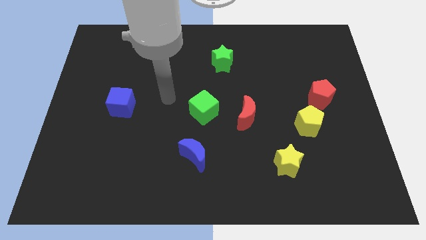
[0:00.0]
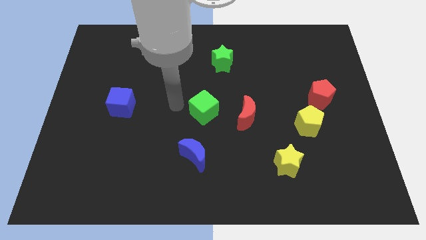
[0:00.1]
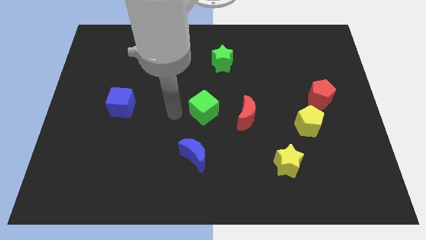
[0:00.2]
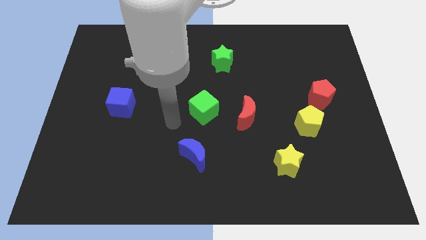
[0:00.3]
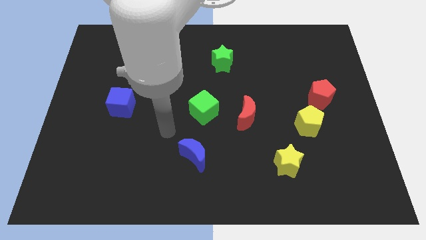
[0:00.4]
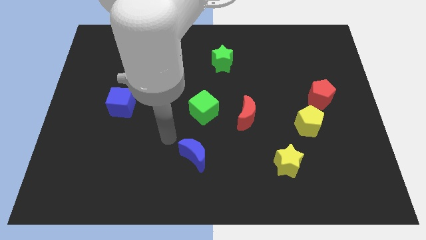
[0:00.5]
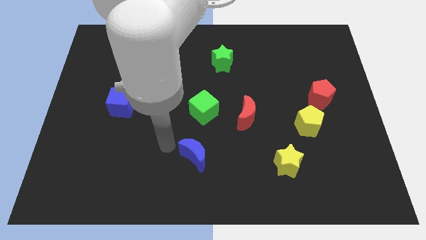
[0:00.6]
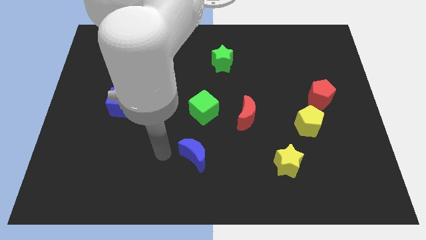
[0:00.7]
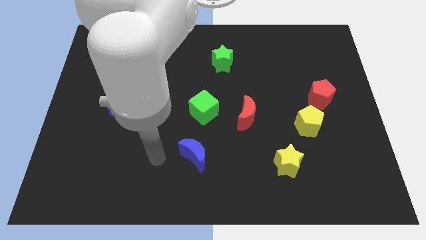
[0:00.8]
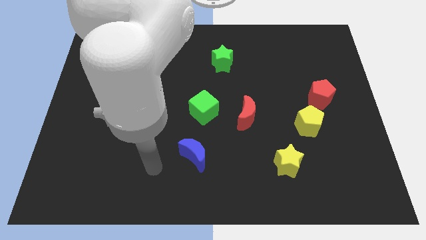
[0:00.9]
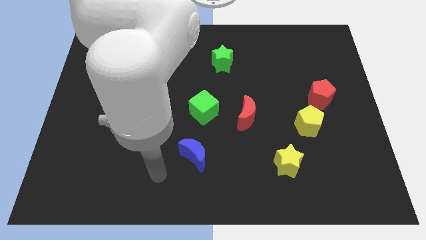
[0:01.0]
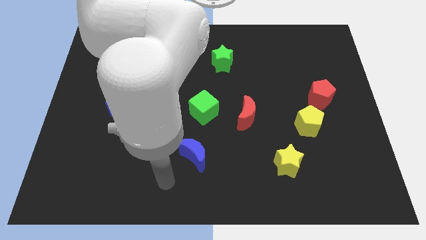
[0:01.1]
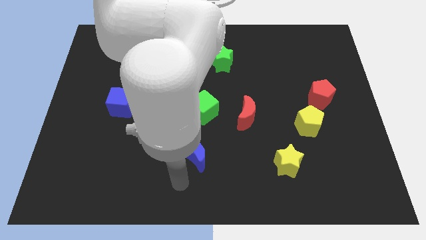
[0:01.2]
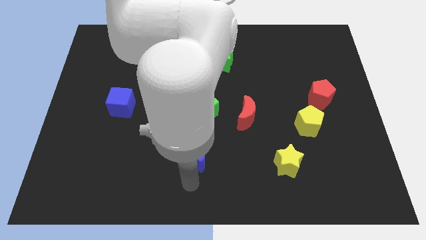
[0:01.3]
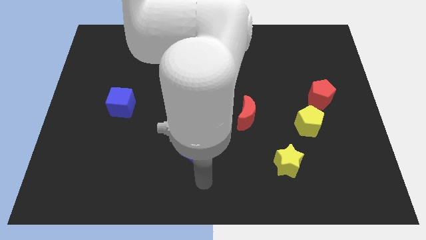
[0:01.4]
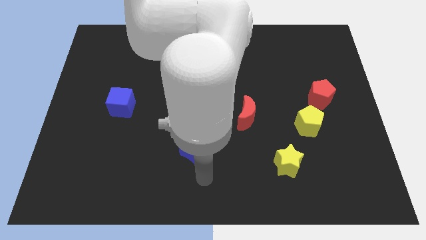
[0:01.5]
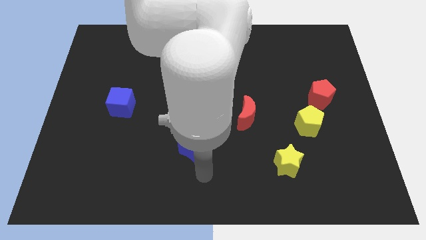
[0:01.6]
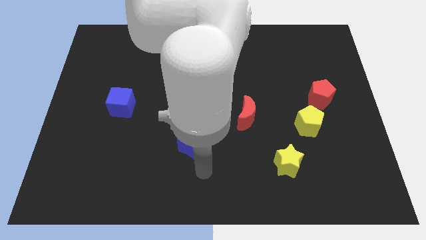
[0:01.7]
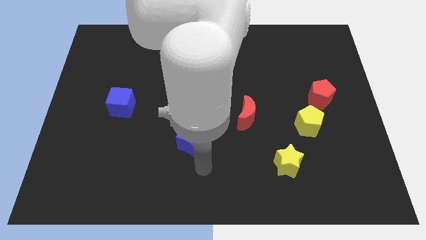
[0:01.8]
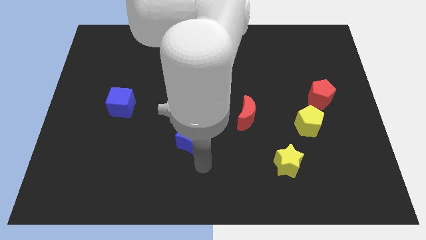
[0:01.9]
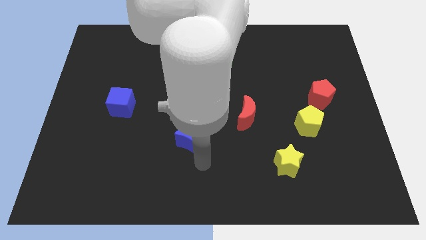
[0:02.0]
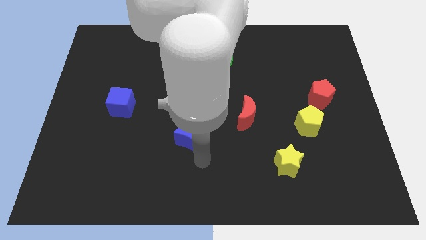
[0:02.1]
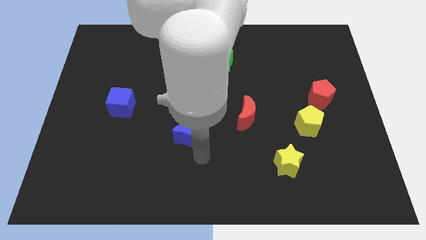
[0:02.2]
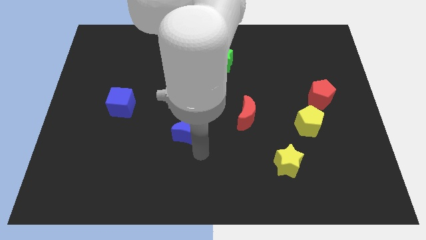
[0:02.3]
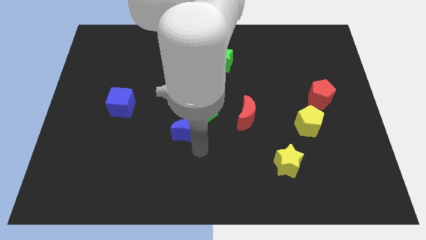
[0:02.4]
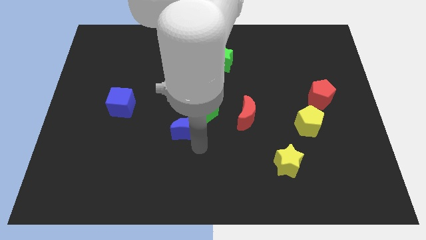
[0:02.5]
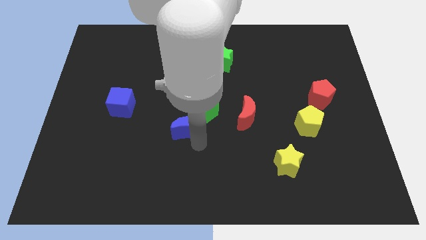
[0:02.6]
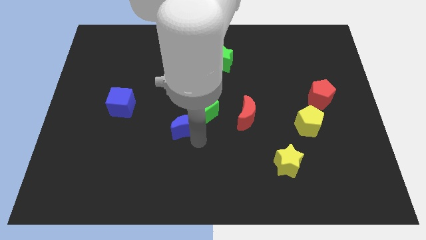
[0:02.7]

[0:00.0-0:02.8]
slide the blue moon a little bit up

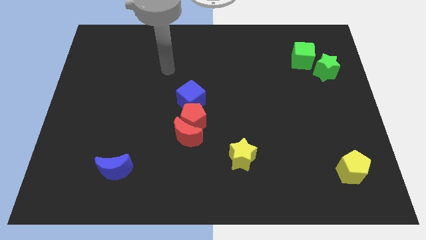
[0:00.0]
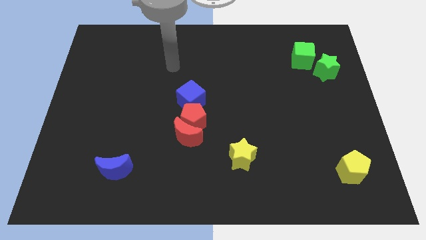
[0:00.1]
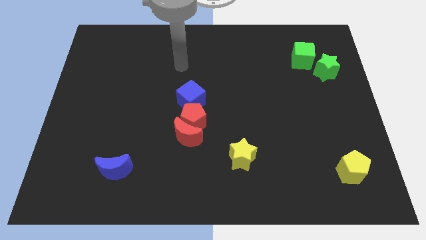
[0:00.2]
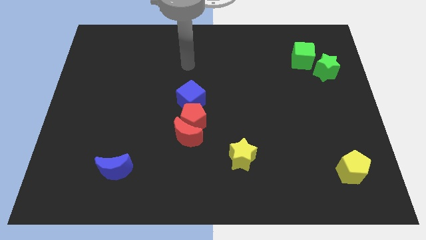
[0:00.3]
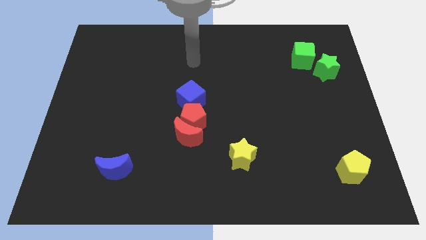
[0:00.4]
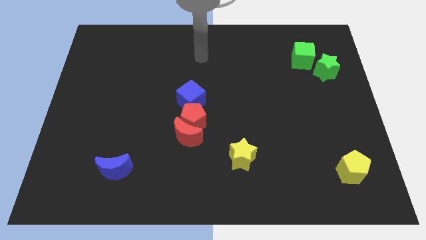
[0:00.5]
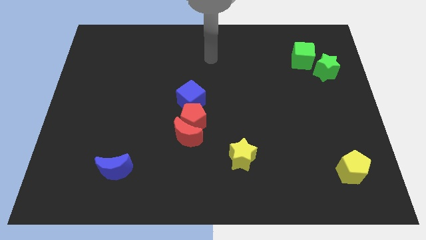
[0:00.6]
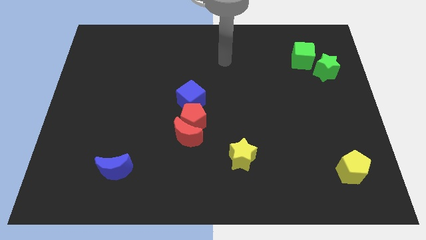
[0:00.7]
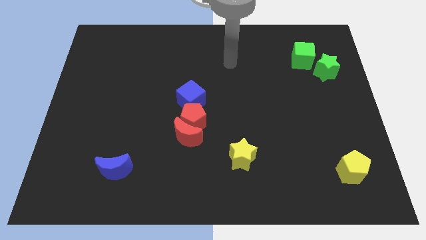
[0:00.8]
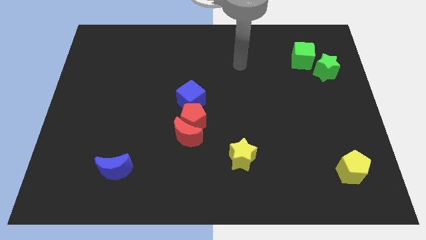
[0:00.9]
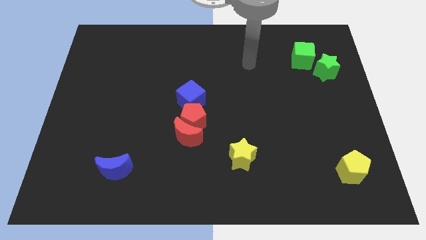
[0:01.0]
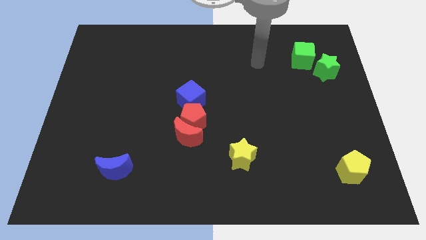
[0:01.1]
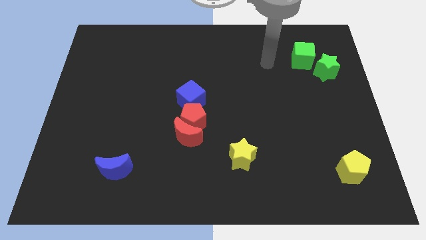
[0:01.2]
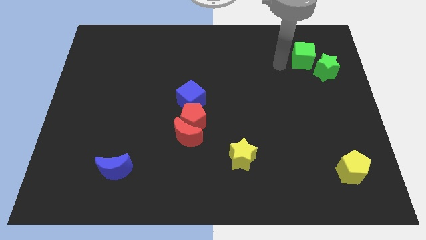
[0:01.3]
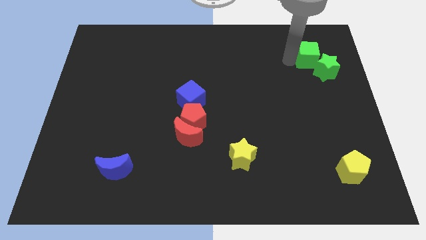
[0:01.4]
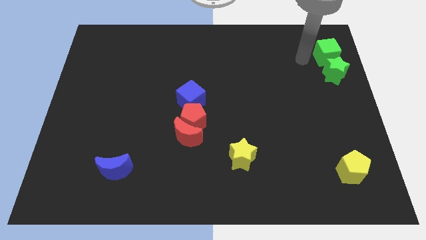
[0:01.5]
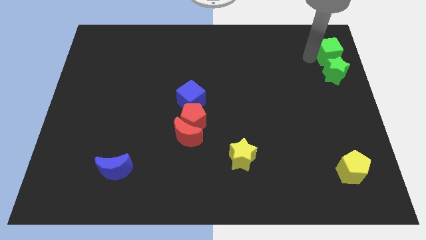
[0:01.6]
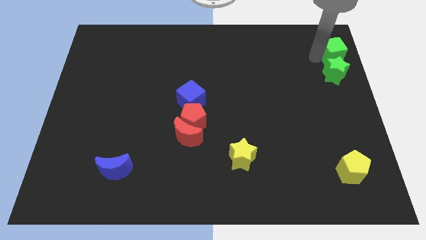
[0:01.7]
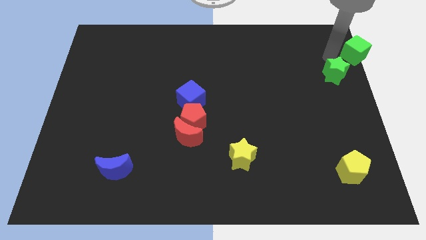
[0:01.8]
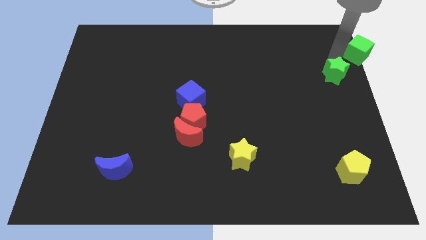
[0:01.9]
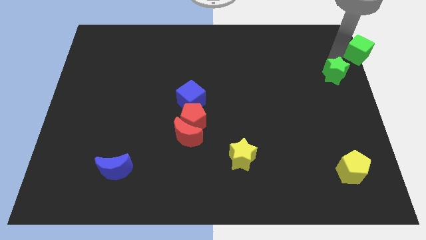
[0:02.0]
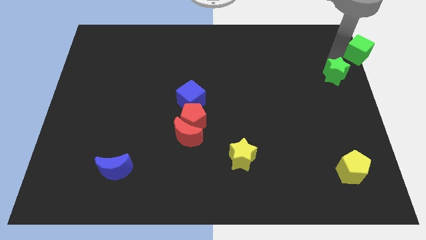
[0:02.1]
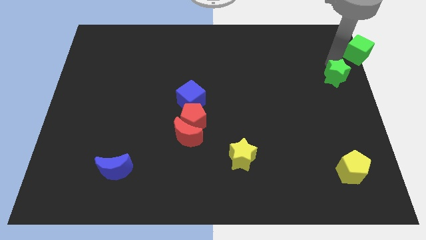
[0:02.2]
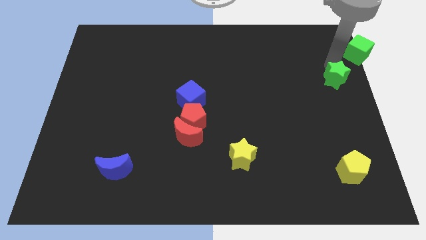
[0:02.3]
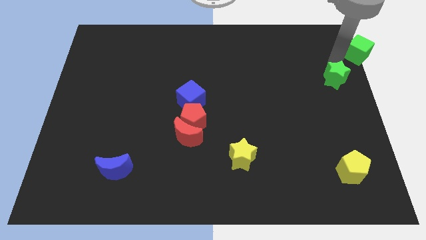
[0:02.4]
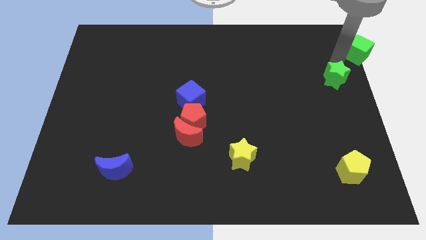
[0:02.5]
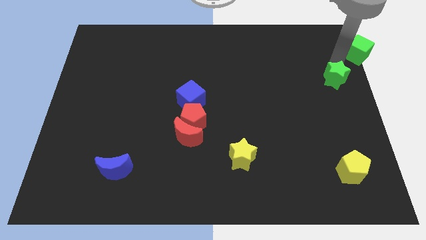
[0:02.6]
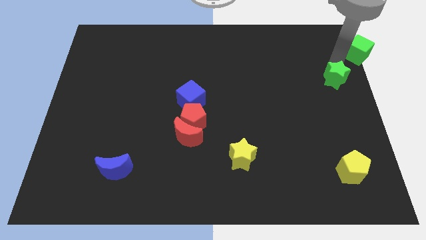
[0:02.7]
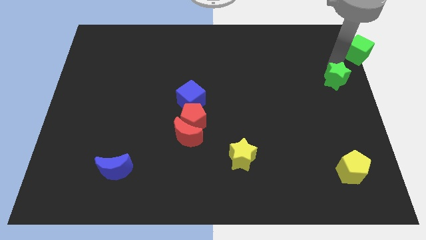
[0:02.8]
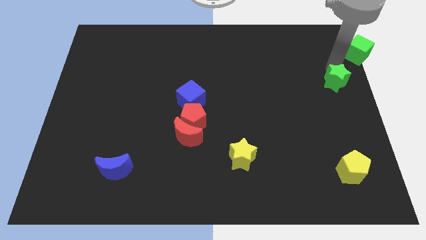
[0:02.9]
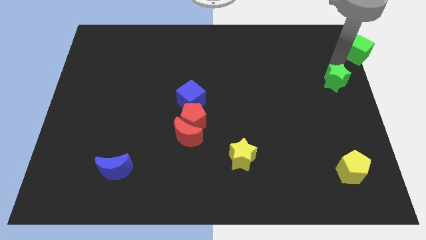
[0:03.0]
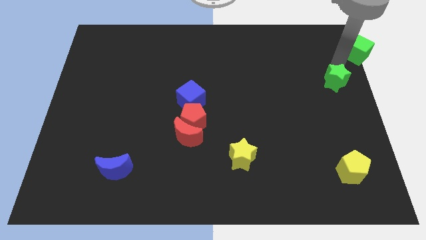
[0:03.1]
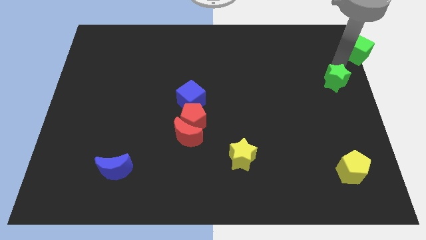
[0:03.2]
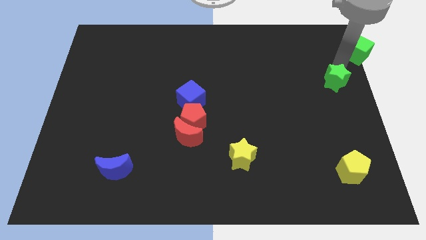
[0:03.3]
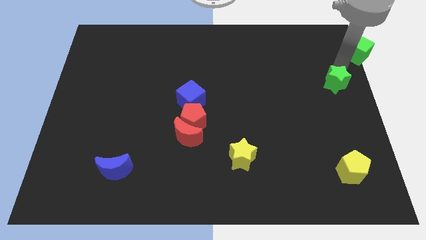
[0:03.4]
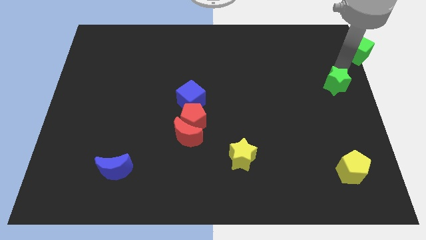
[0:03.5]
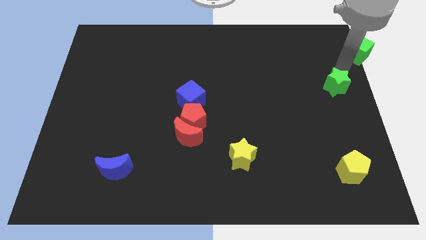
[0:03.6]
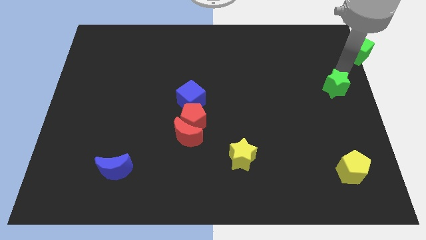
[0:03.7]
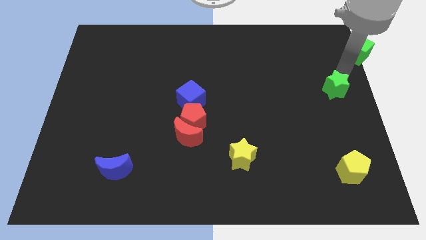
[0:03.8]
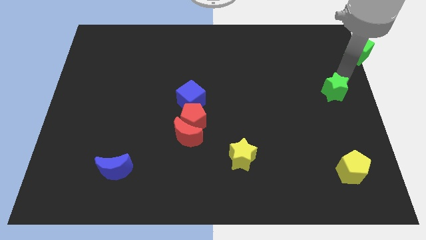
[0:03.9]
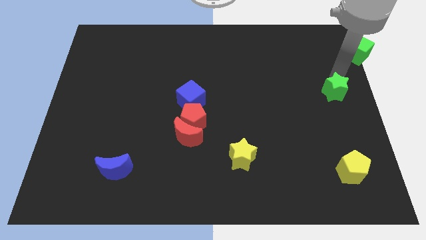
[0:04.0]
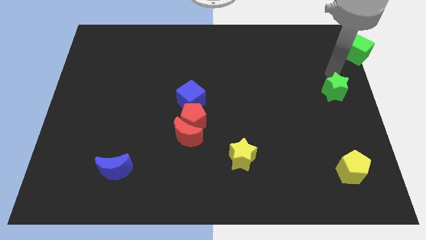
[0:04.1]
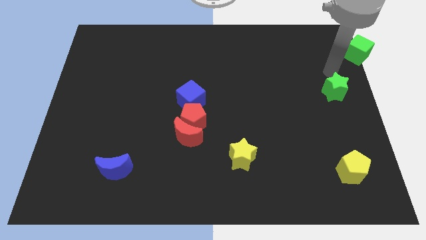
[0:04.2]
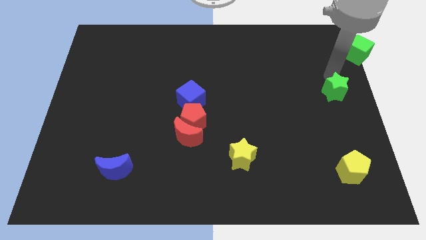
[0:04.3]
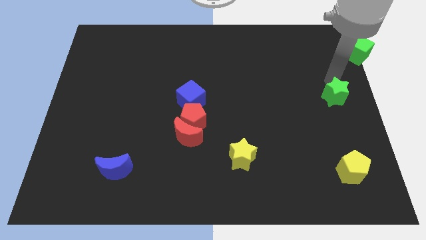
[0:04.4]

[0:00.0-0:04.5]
slightly move the green star downwards

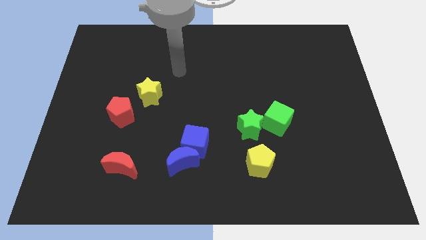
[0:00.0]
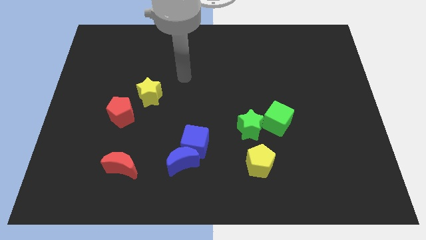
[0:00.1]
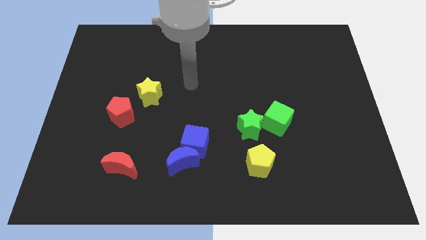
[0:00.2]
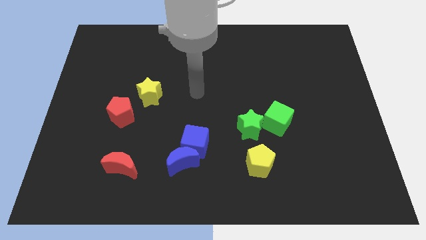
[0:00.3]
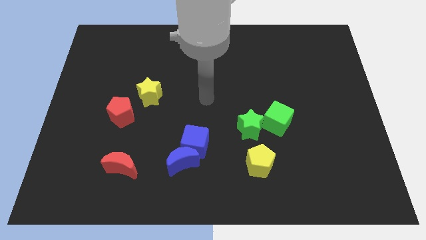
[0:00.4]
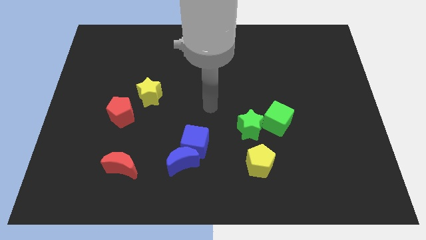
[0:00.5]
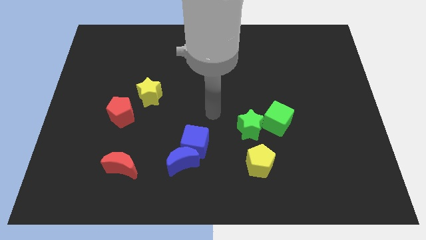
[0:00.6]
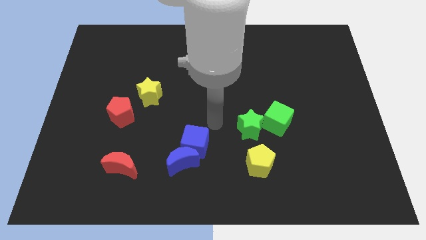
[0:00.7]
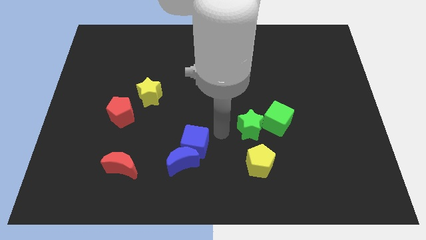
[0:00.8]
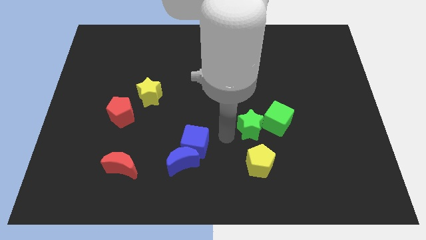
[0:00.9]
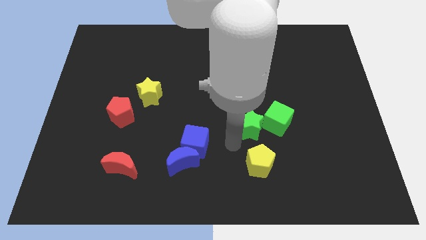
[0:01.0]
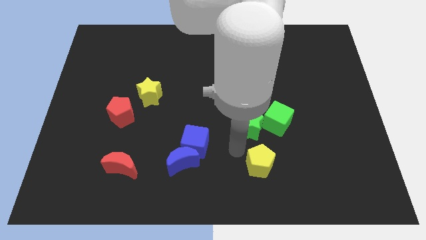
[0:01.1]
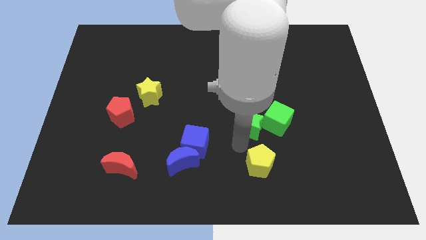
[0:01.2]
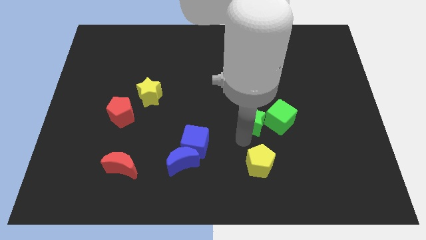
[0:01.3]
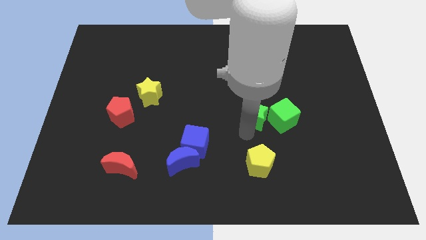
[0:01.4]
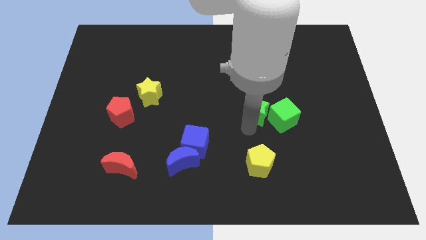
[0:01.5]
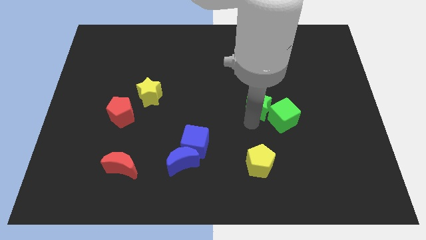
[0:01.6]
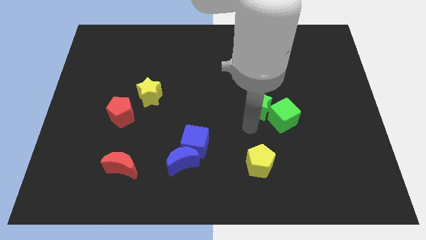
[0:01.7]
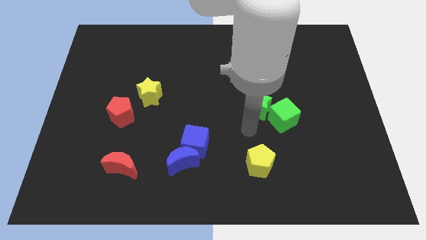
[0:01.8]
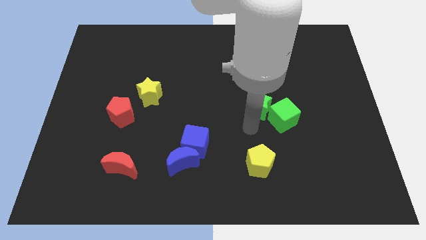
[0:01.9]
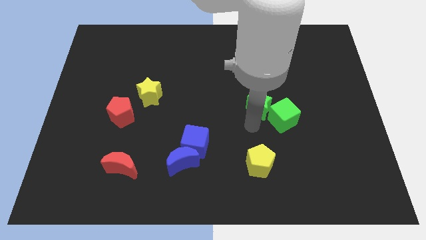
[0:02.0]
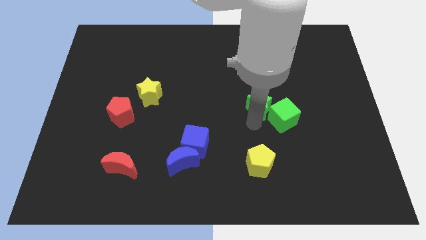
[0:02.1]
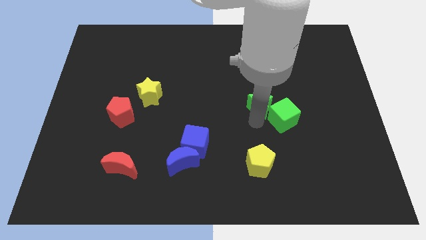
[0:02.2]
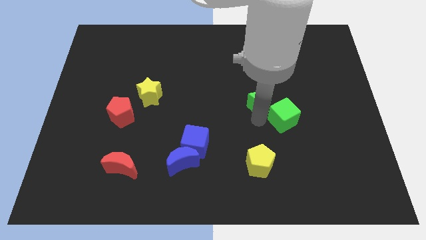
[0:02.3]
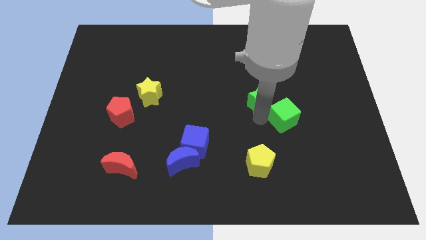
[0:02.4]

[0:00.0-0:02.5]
slightly slide the green star up and then to the right
